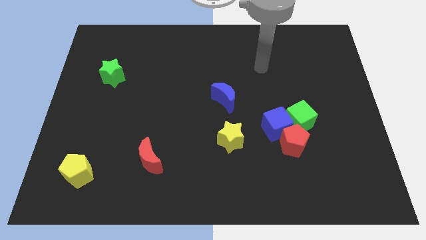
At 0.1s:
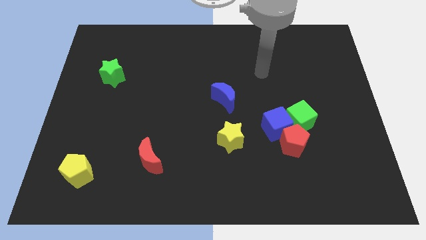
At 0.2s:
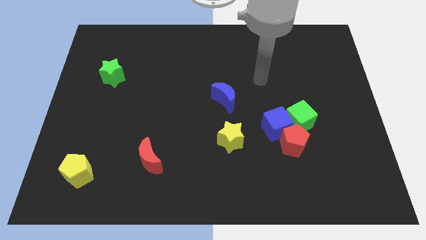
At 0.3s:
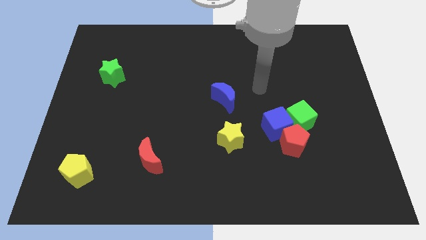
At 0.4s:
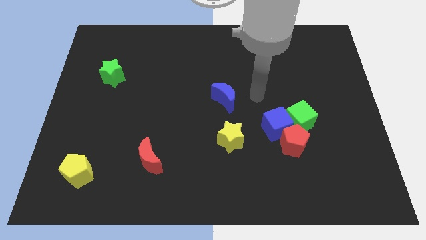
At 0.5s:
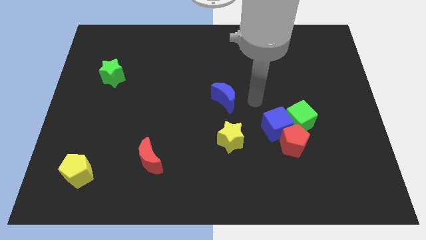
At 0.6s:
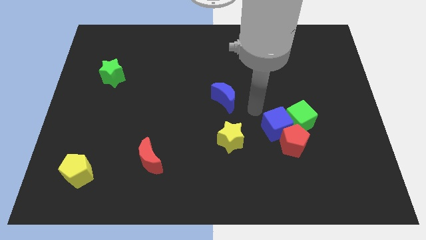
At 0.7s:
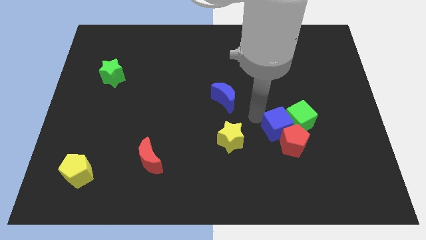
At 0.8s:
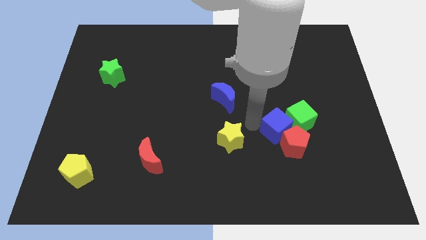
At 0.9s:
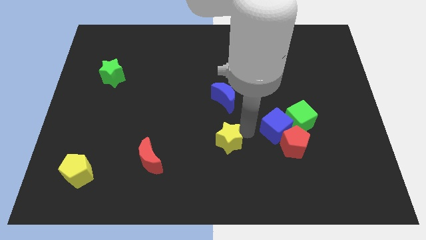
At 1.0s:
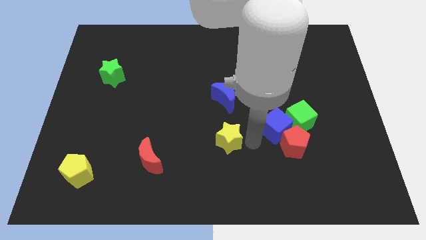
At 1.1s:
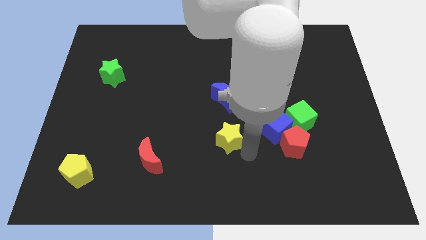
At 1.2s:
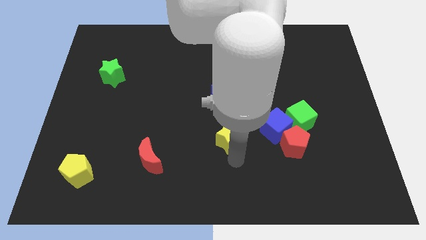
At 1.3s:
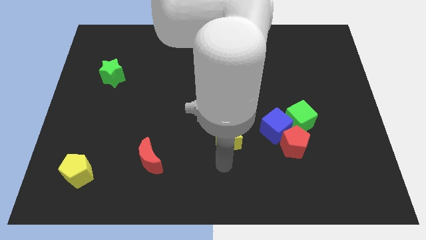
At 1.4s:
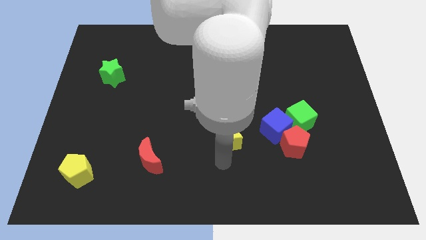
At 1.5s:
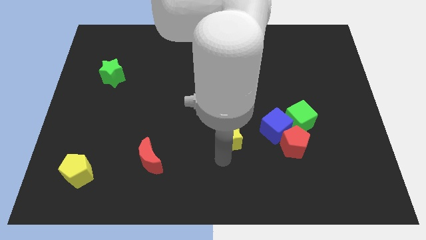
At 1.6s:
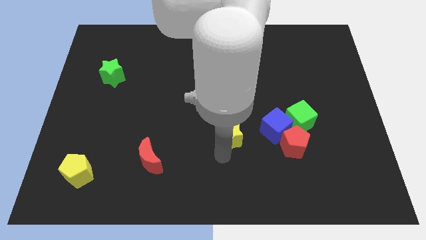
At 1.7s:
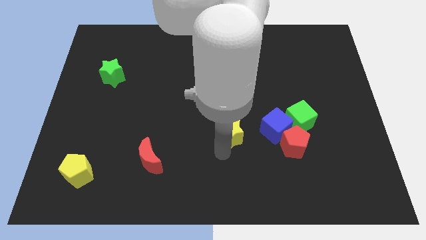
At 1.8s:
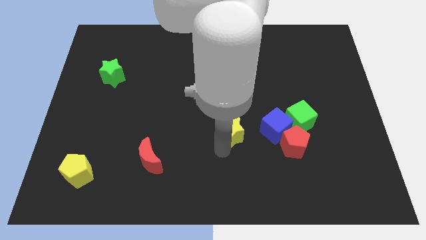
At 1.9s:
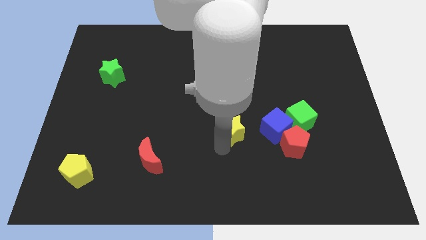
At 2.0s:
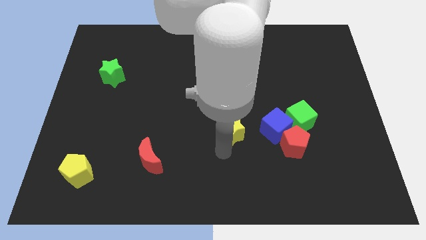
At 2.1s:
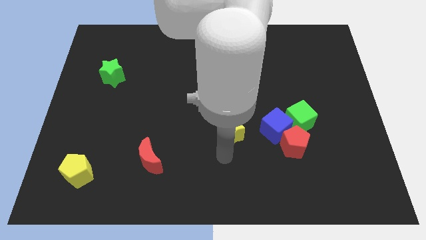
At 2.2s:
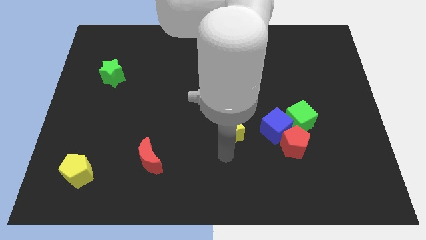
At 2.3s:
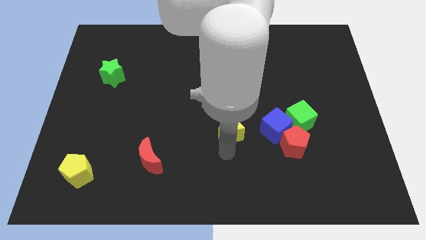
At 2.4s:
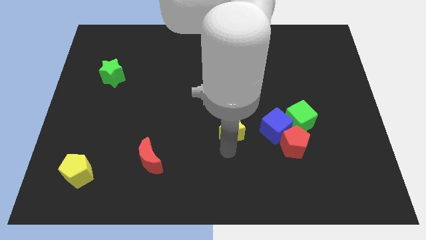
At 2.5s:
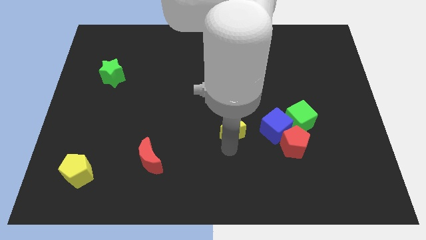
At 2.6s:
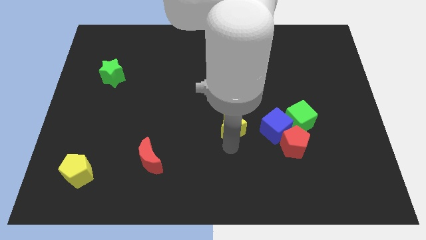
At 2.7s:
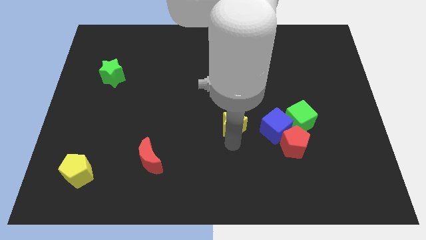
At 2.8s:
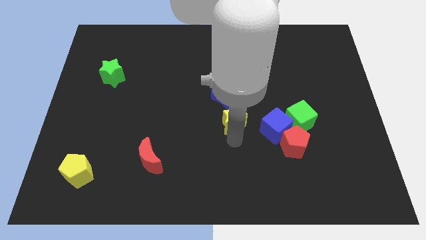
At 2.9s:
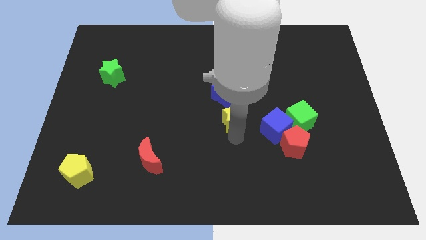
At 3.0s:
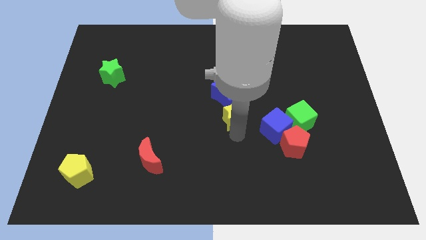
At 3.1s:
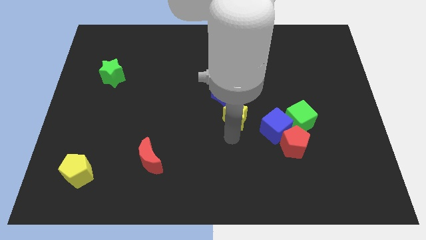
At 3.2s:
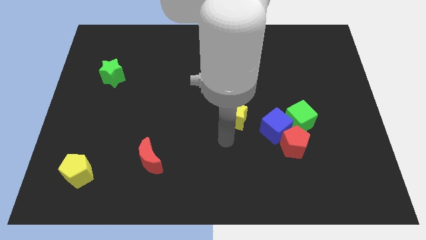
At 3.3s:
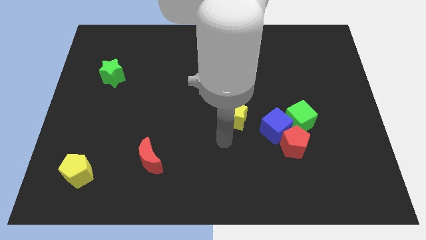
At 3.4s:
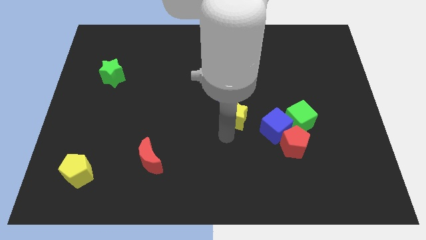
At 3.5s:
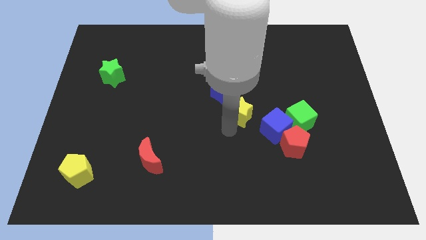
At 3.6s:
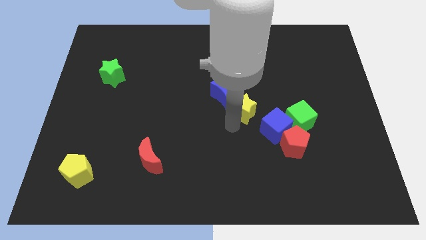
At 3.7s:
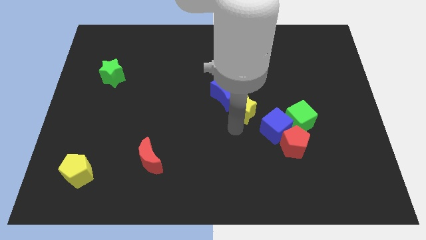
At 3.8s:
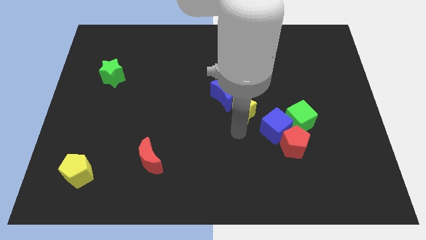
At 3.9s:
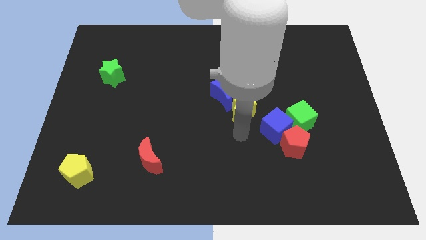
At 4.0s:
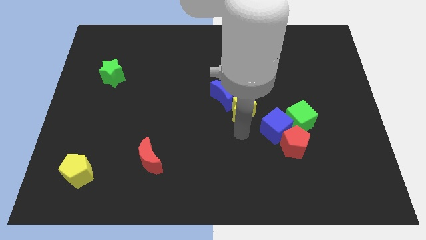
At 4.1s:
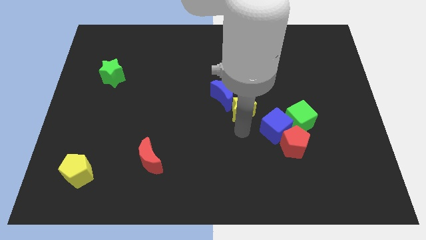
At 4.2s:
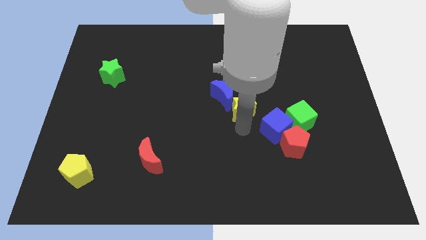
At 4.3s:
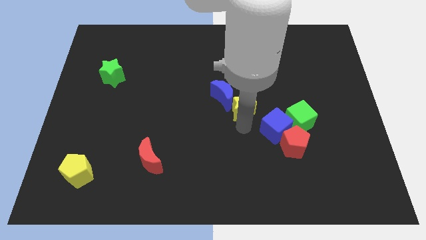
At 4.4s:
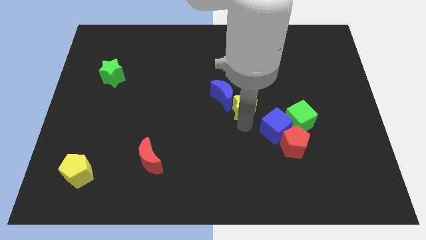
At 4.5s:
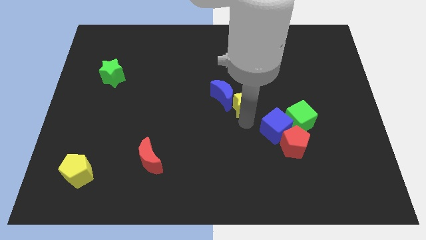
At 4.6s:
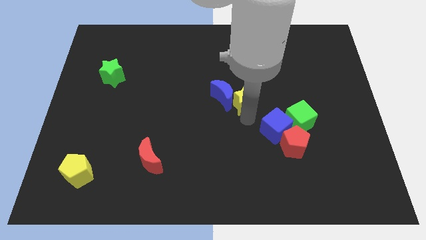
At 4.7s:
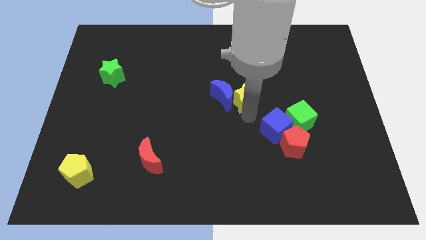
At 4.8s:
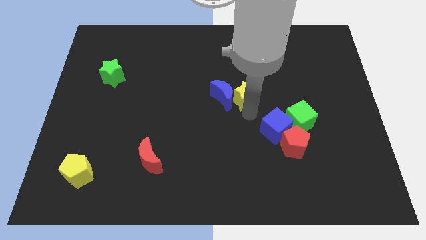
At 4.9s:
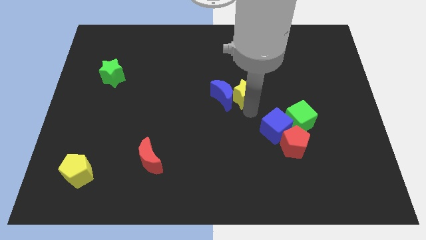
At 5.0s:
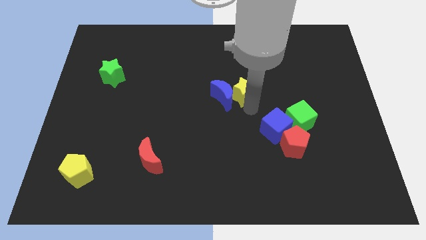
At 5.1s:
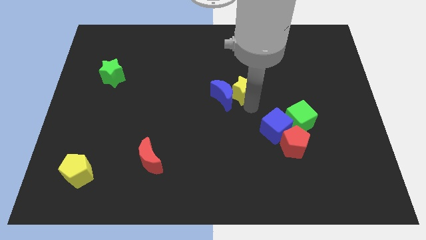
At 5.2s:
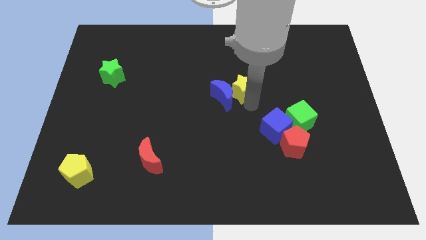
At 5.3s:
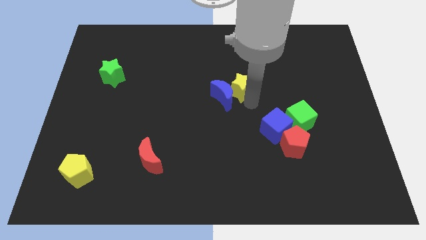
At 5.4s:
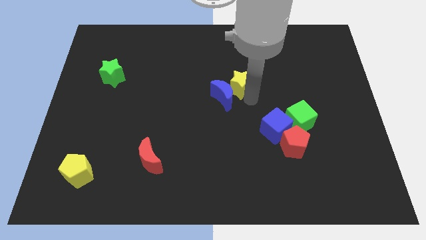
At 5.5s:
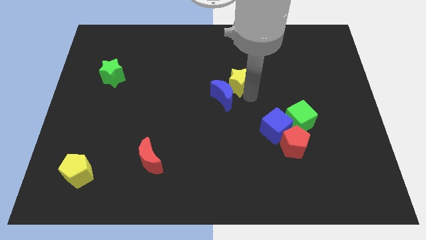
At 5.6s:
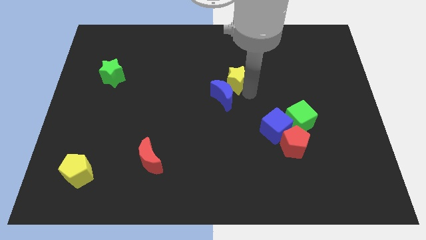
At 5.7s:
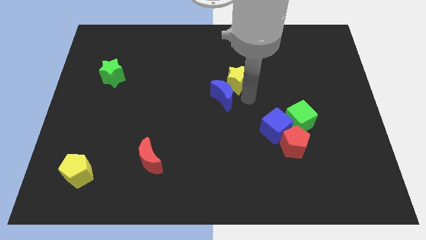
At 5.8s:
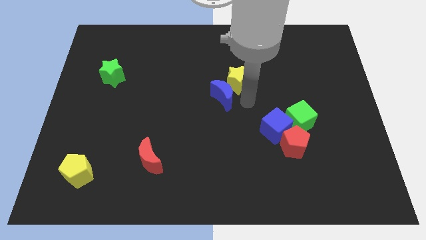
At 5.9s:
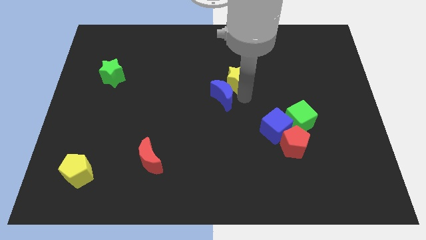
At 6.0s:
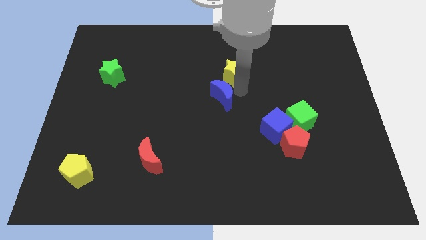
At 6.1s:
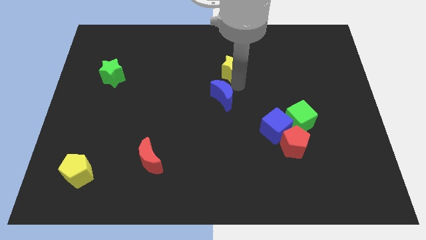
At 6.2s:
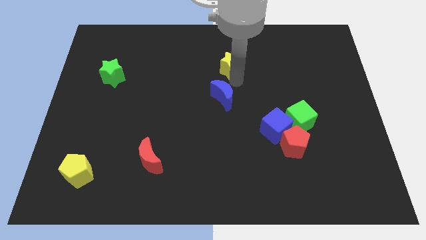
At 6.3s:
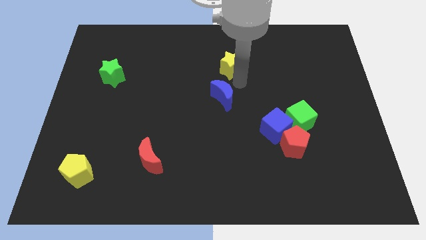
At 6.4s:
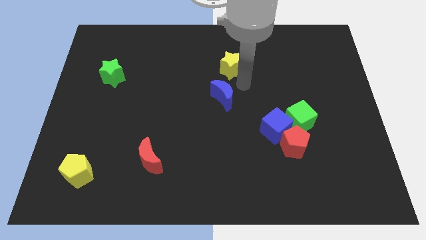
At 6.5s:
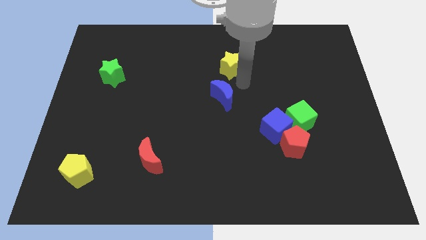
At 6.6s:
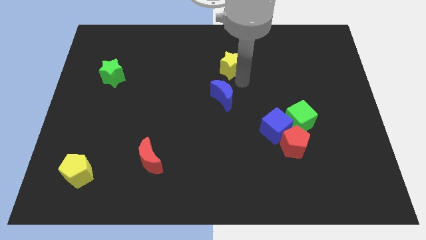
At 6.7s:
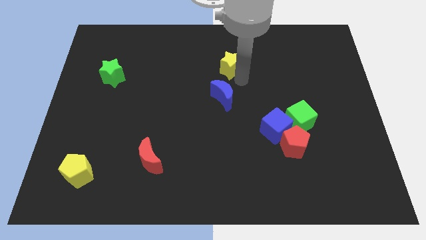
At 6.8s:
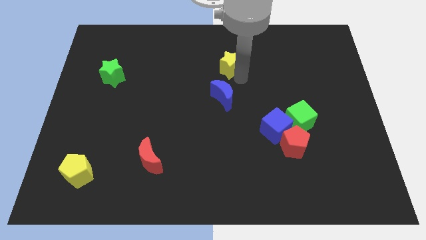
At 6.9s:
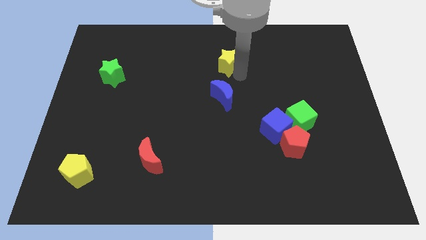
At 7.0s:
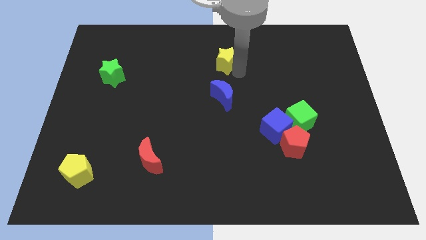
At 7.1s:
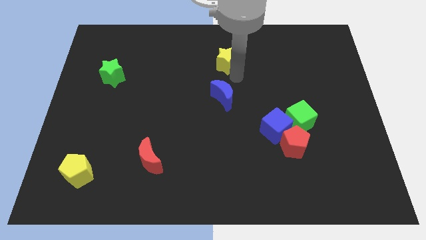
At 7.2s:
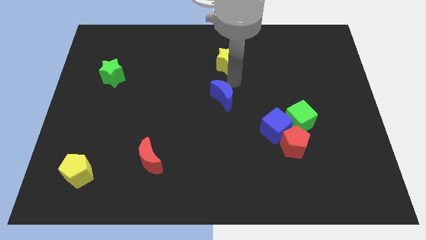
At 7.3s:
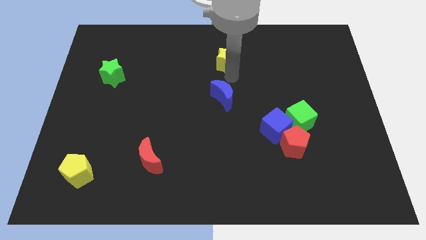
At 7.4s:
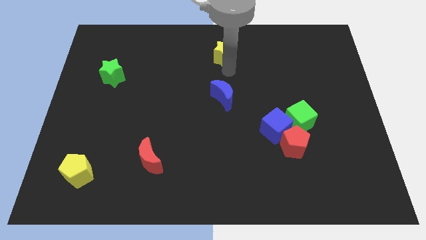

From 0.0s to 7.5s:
move the yellow star to the top
